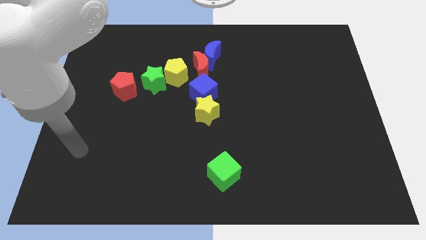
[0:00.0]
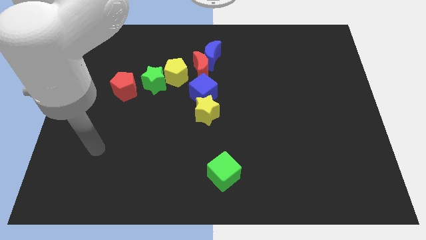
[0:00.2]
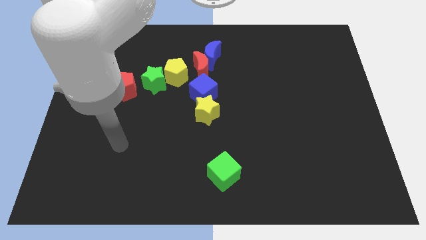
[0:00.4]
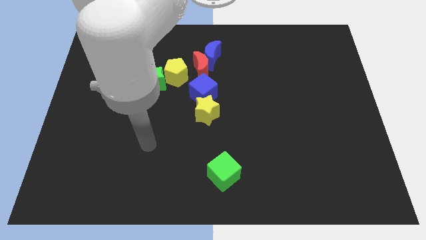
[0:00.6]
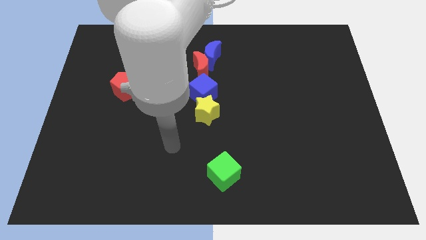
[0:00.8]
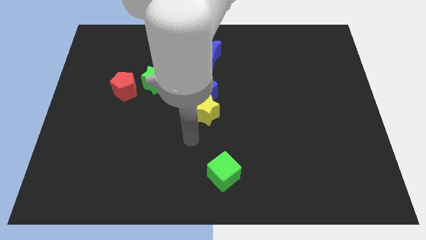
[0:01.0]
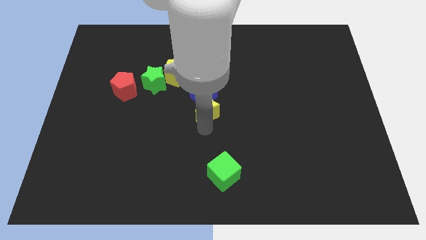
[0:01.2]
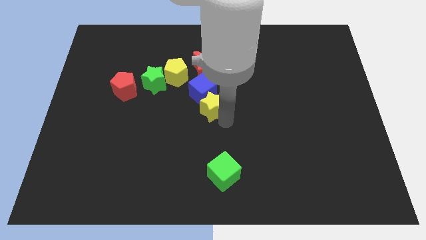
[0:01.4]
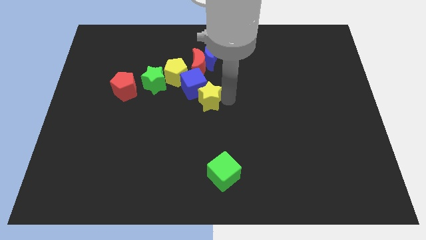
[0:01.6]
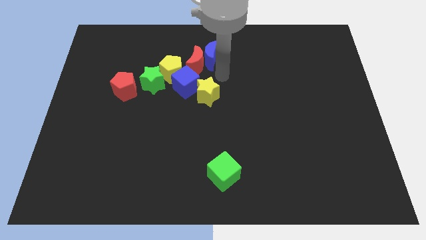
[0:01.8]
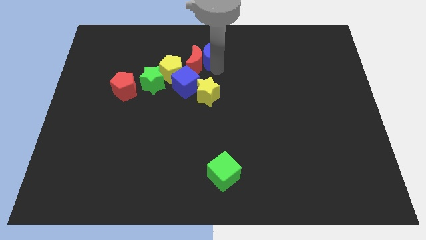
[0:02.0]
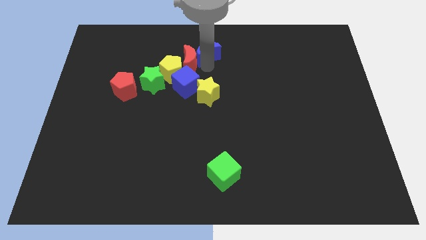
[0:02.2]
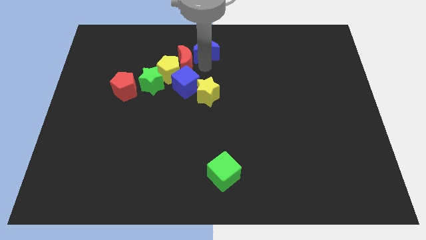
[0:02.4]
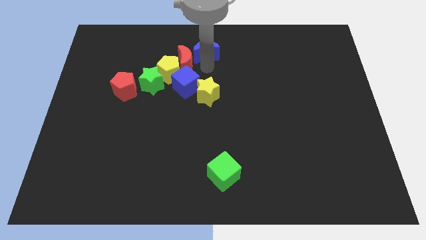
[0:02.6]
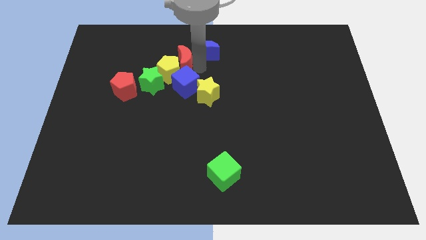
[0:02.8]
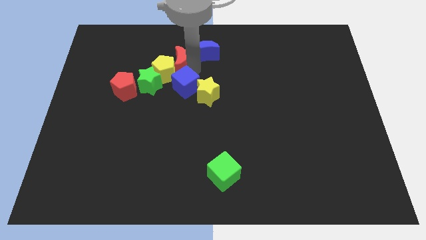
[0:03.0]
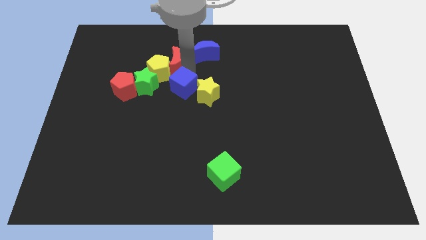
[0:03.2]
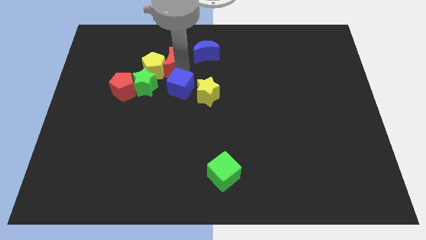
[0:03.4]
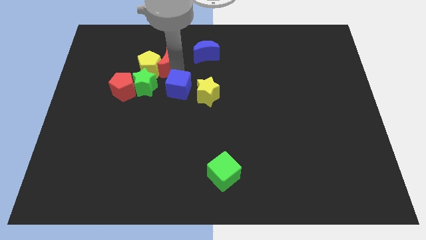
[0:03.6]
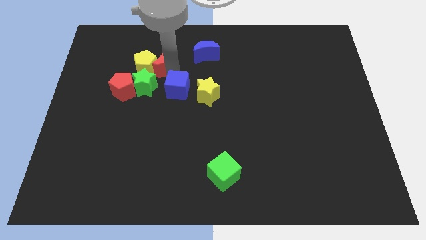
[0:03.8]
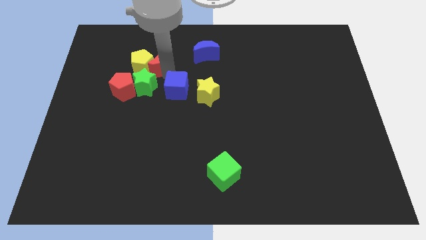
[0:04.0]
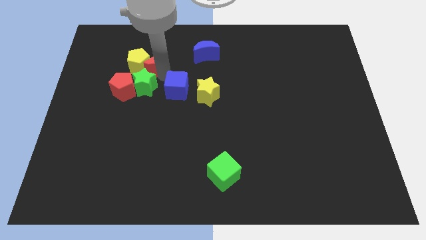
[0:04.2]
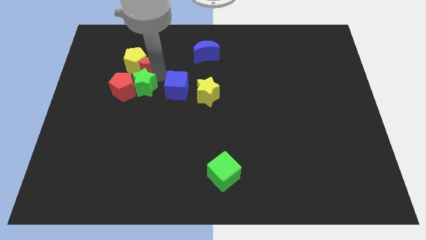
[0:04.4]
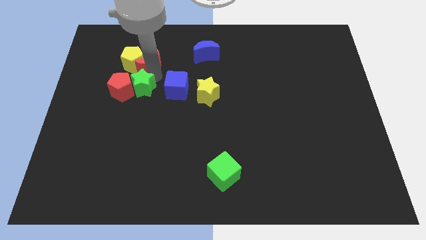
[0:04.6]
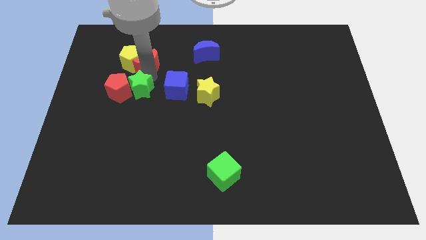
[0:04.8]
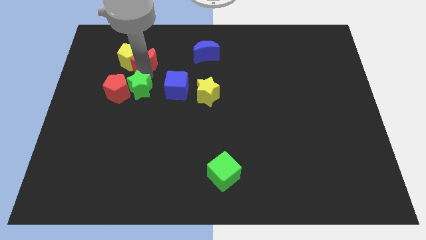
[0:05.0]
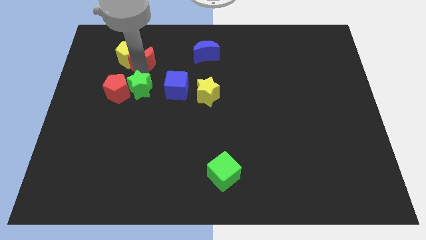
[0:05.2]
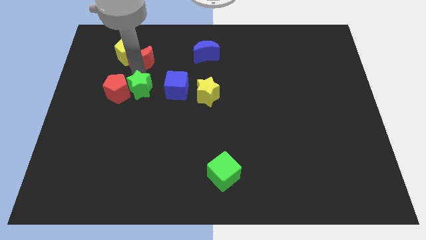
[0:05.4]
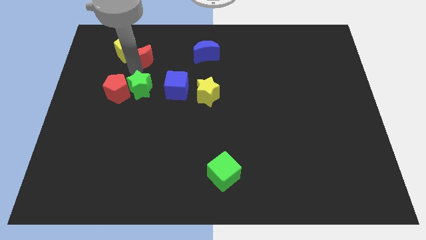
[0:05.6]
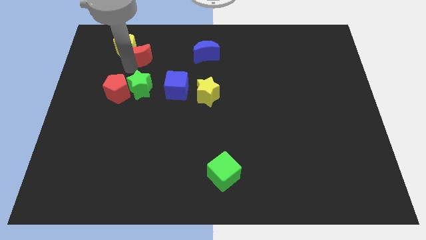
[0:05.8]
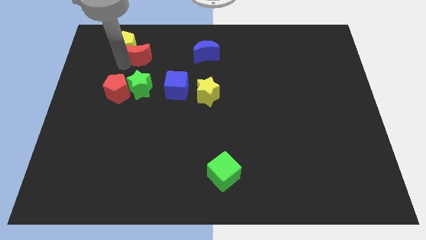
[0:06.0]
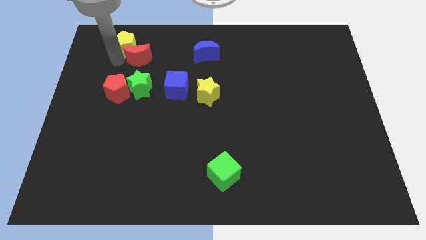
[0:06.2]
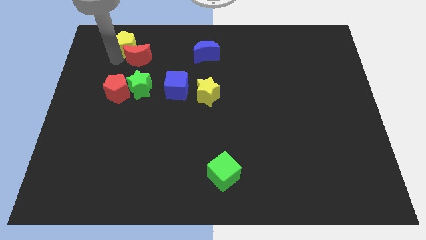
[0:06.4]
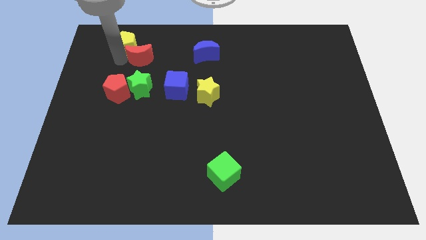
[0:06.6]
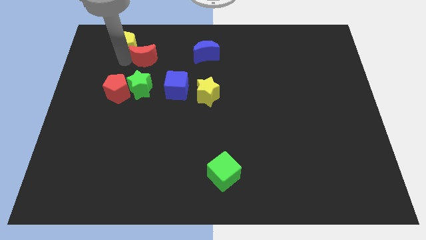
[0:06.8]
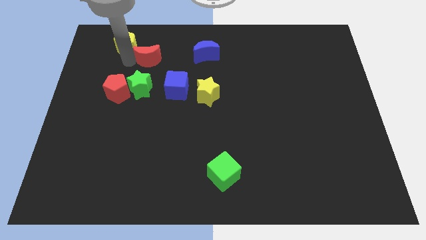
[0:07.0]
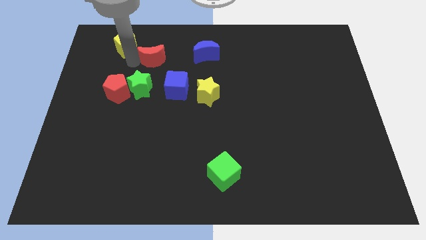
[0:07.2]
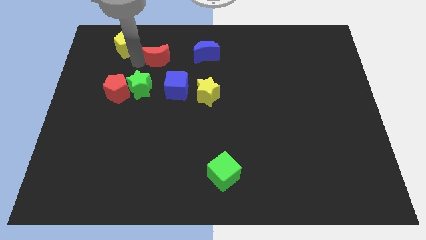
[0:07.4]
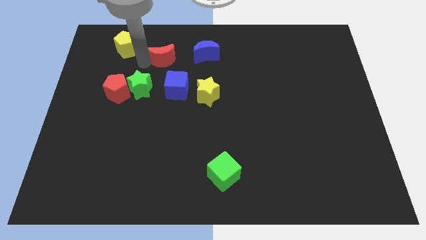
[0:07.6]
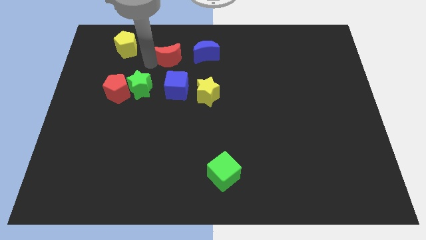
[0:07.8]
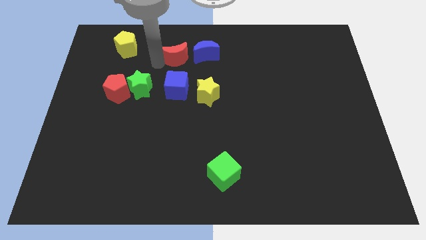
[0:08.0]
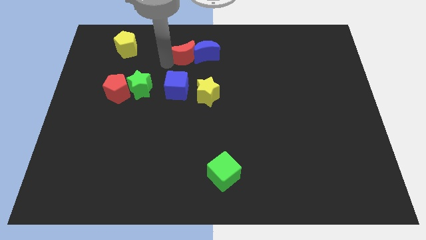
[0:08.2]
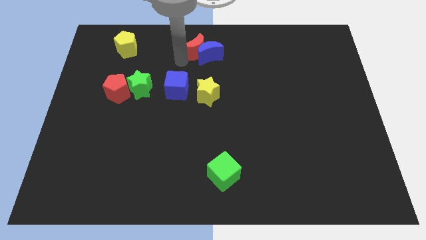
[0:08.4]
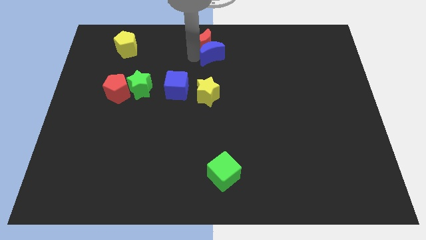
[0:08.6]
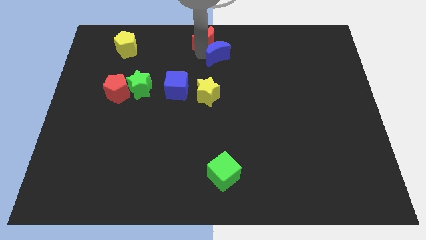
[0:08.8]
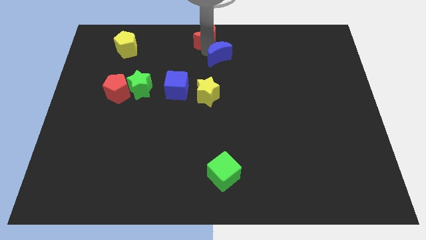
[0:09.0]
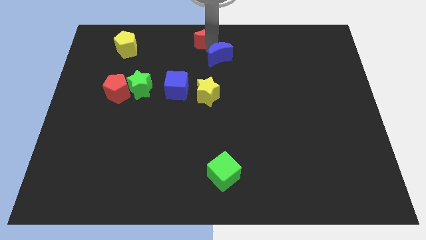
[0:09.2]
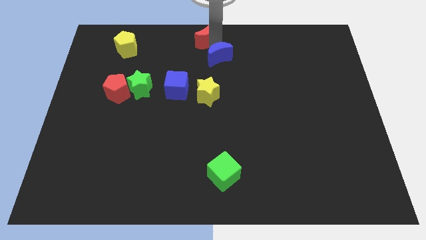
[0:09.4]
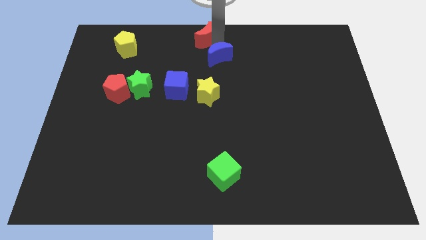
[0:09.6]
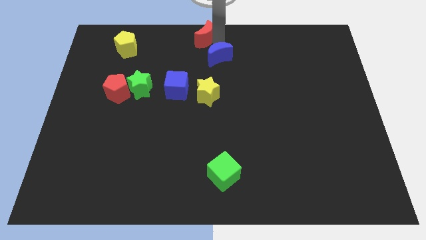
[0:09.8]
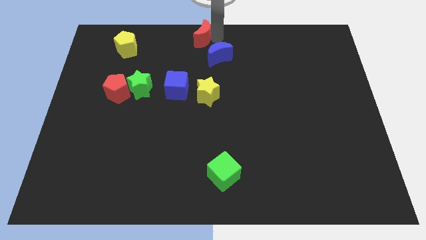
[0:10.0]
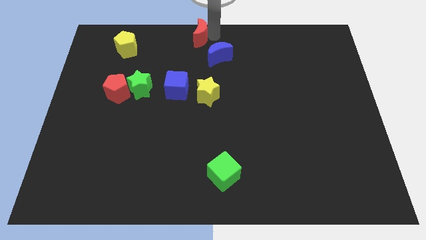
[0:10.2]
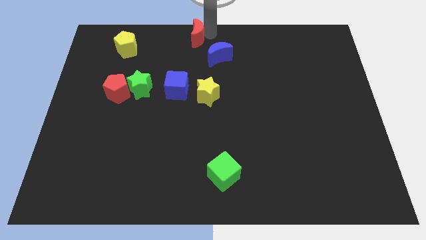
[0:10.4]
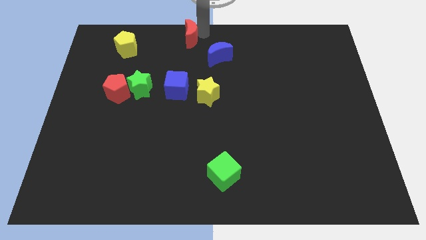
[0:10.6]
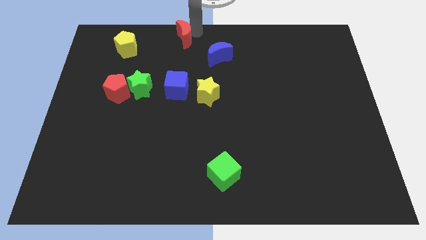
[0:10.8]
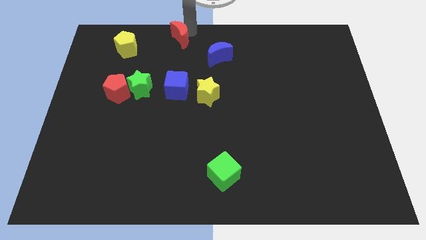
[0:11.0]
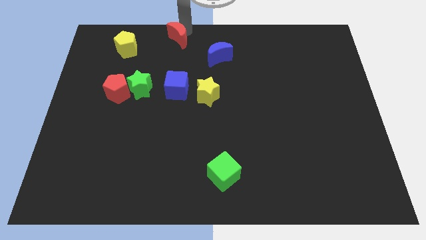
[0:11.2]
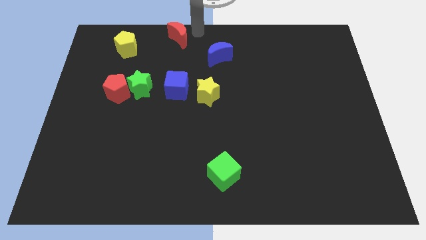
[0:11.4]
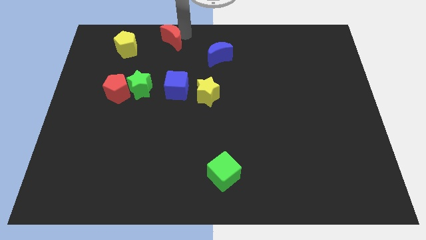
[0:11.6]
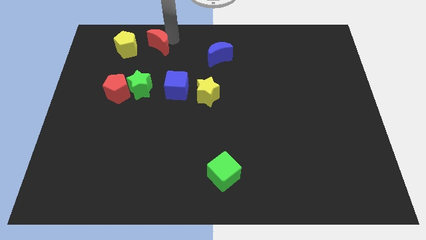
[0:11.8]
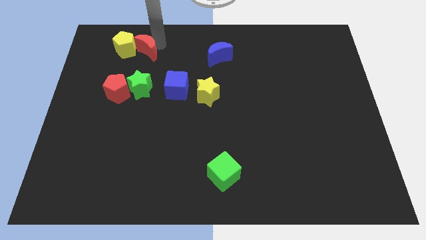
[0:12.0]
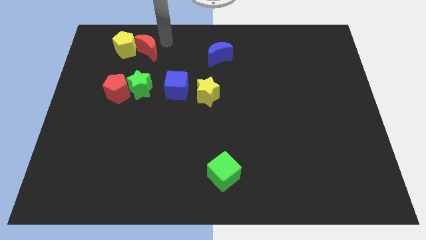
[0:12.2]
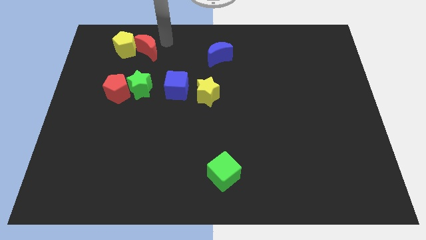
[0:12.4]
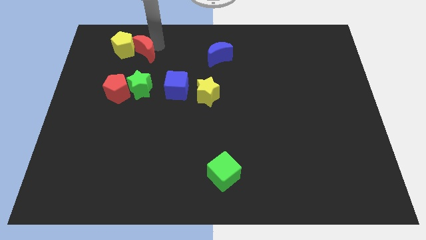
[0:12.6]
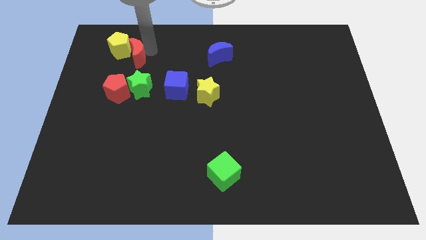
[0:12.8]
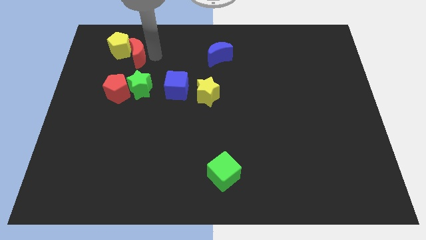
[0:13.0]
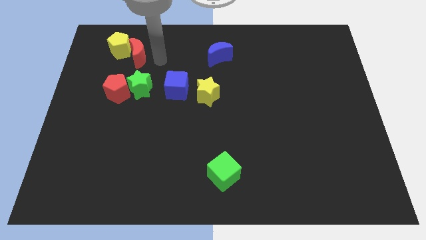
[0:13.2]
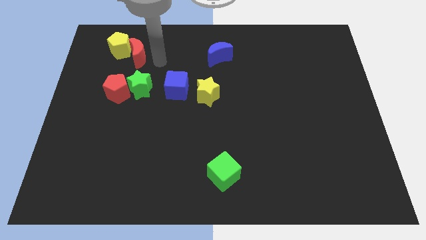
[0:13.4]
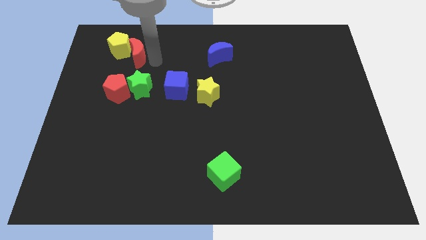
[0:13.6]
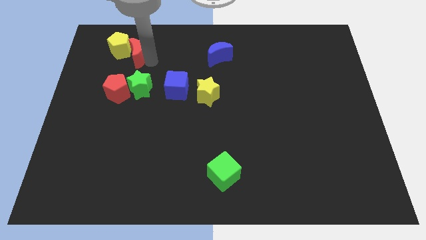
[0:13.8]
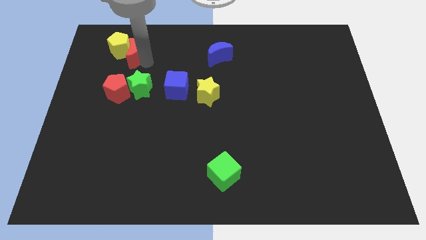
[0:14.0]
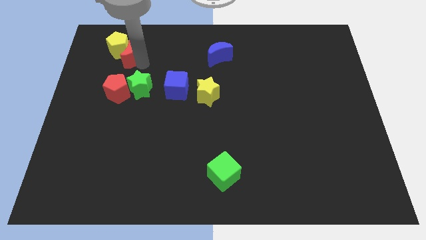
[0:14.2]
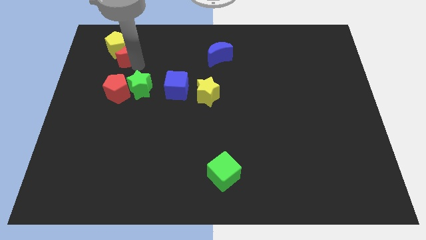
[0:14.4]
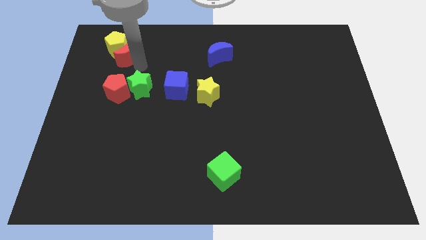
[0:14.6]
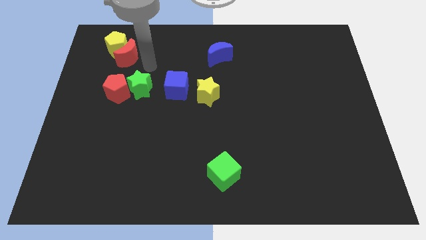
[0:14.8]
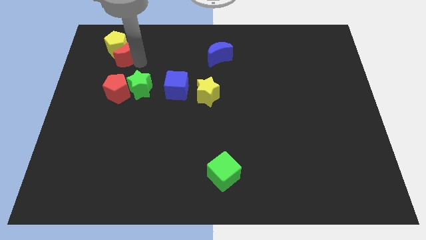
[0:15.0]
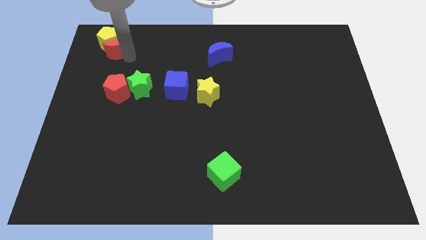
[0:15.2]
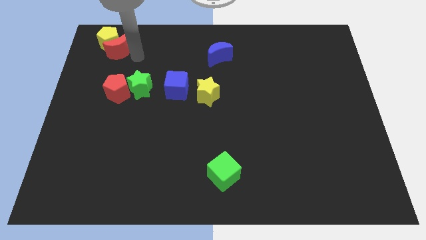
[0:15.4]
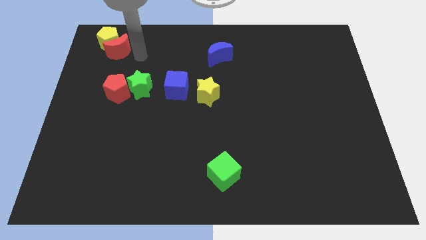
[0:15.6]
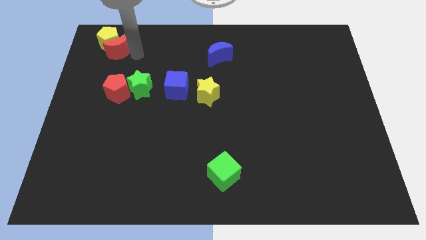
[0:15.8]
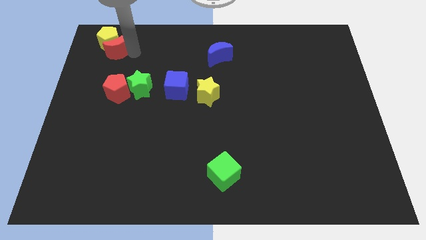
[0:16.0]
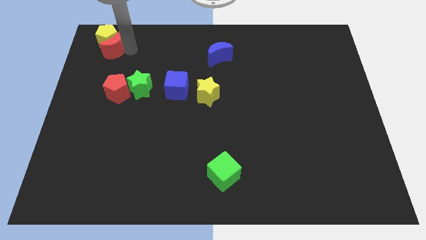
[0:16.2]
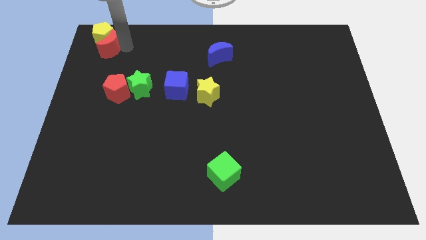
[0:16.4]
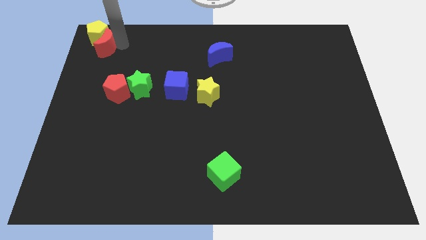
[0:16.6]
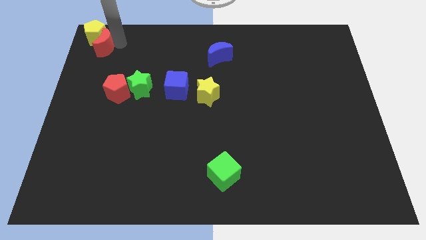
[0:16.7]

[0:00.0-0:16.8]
slide the red moon to the top left of the board
